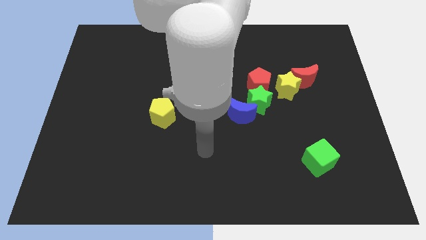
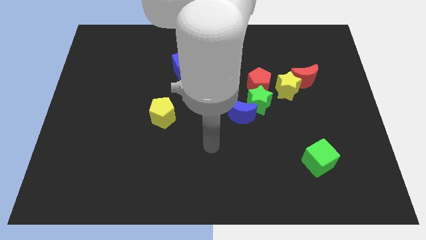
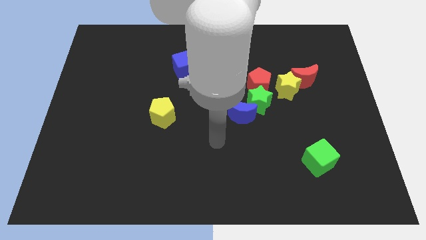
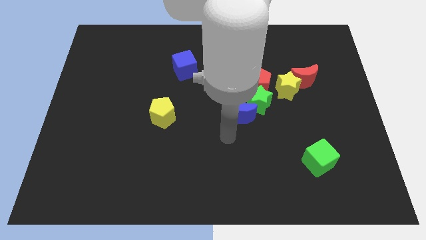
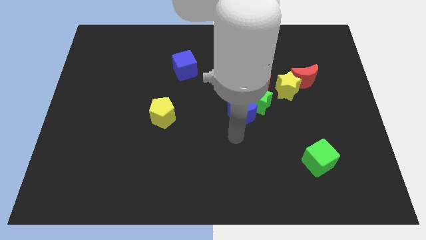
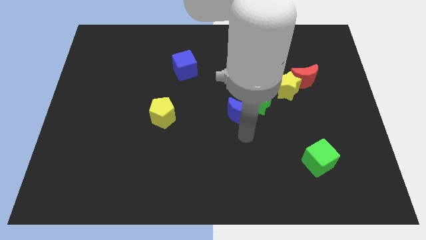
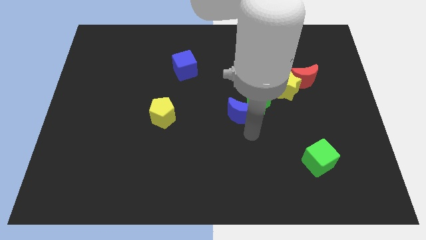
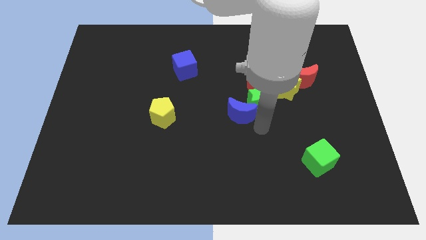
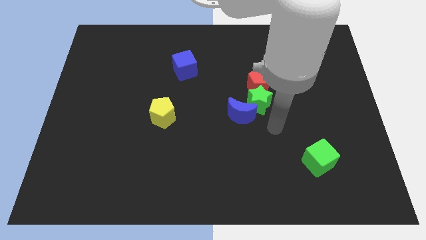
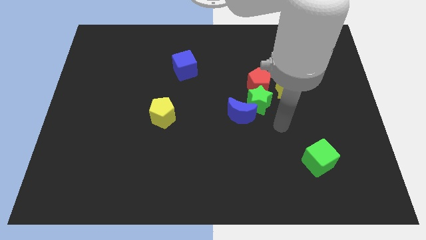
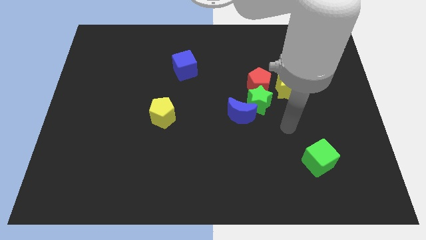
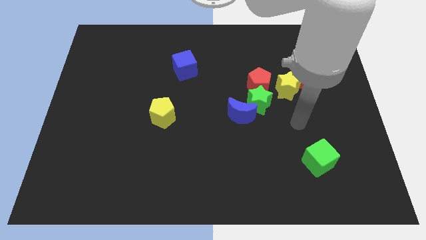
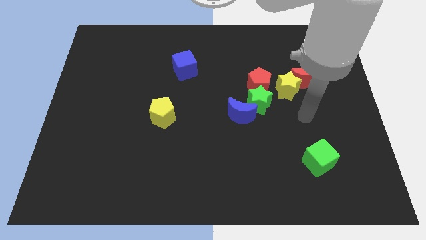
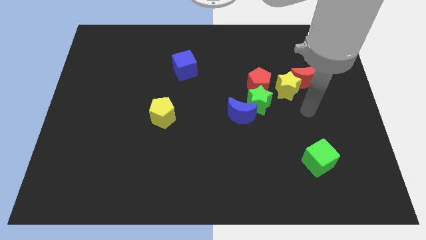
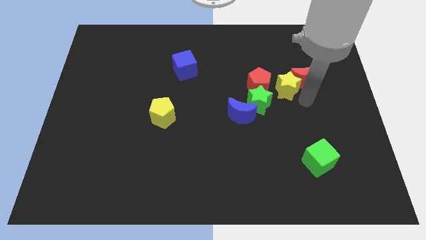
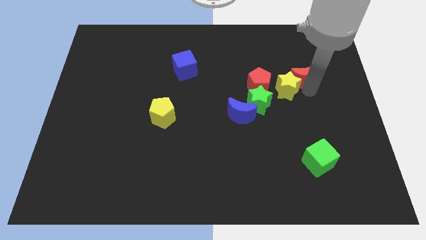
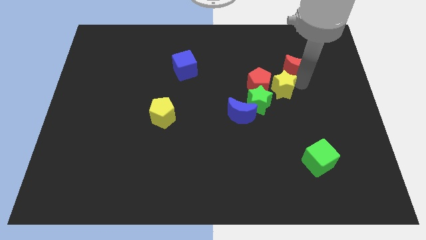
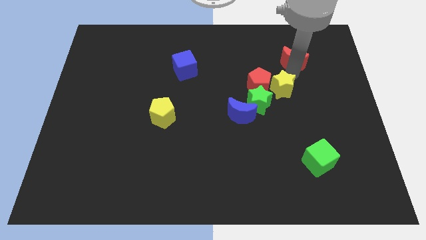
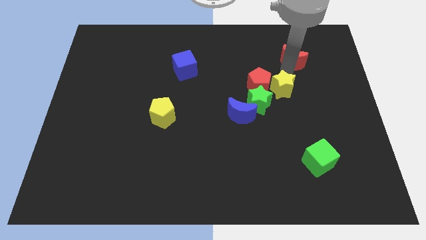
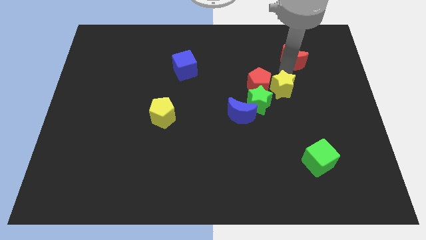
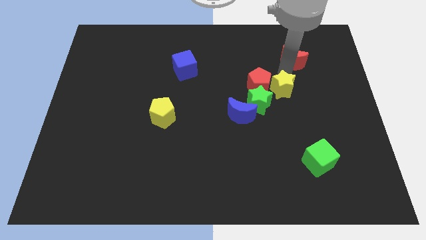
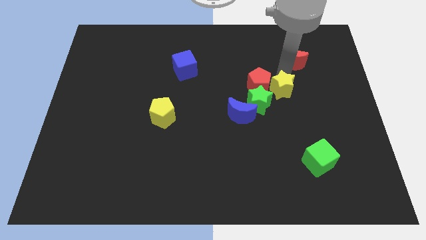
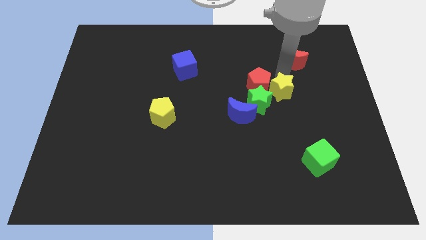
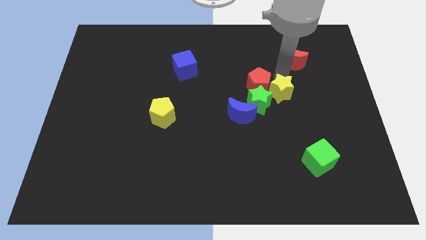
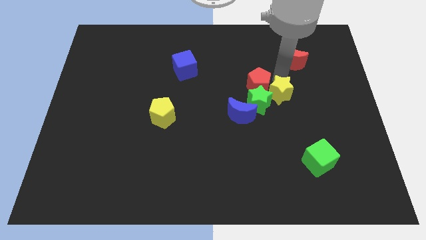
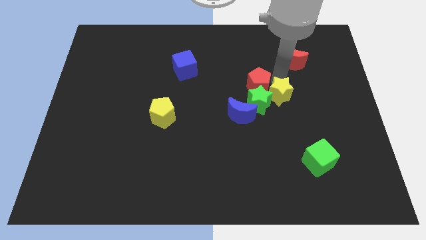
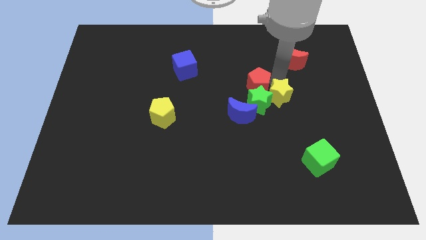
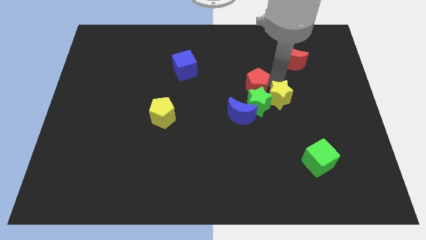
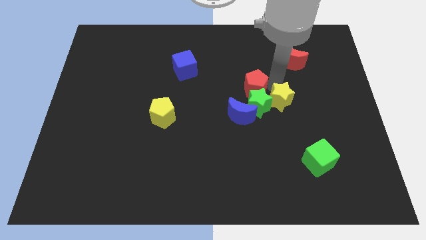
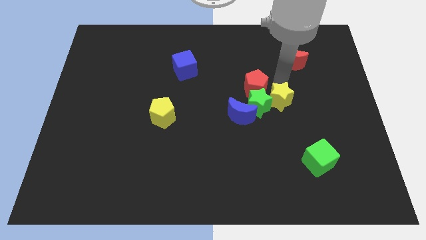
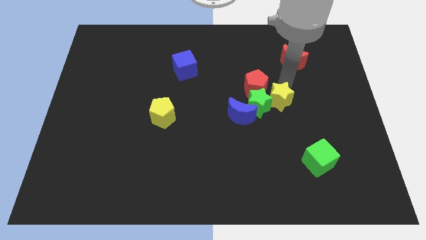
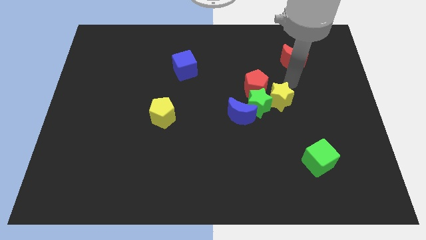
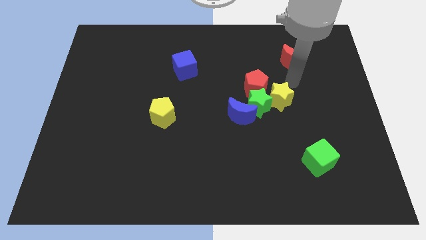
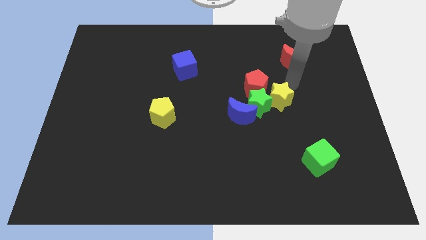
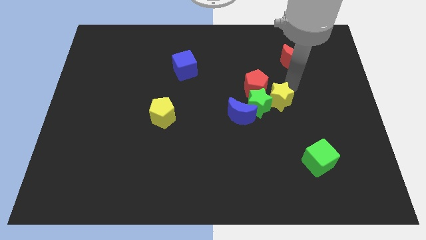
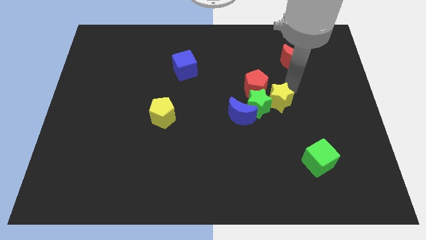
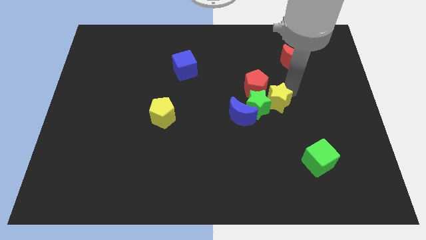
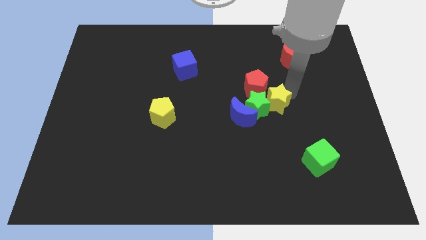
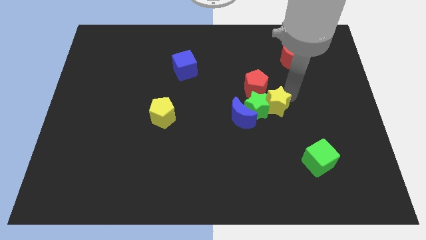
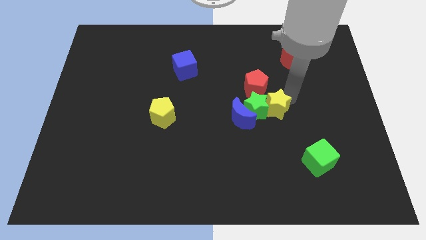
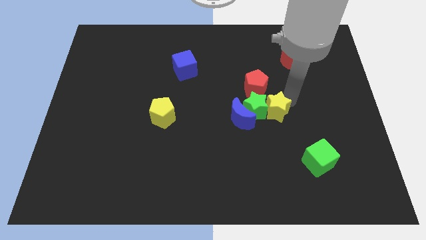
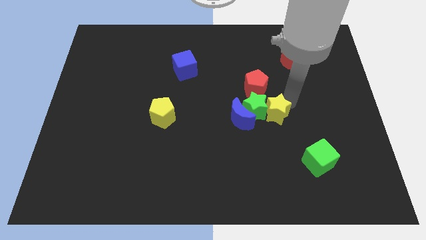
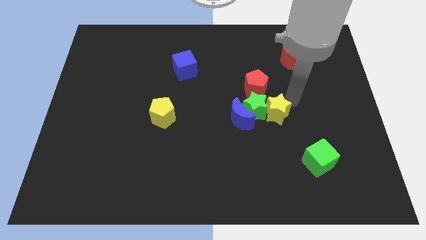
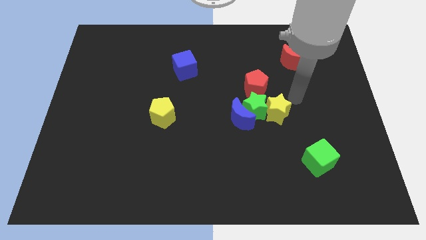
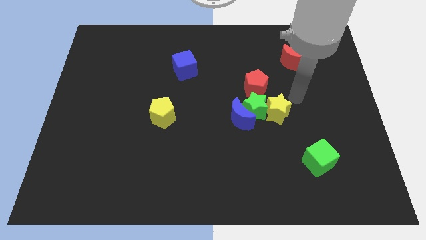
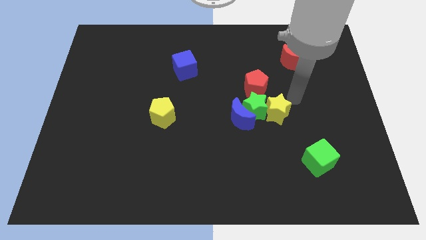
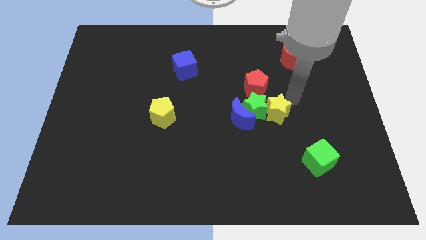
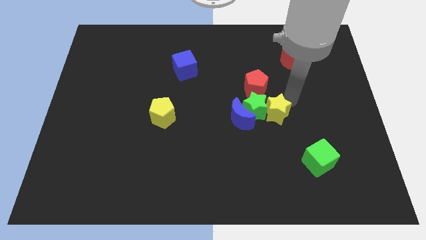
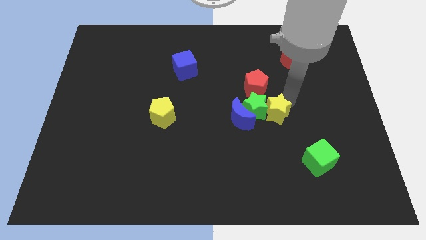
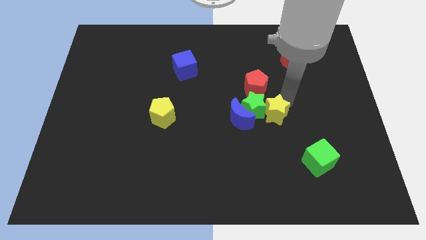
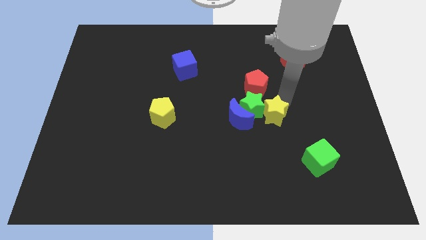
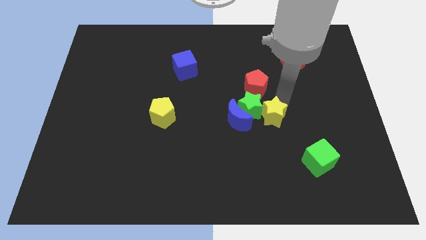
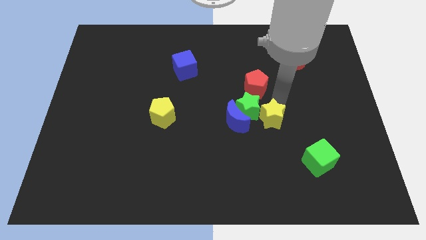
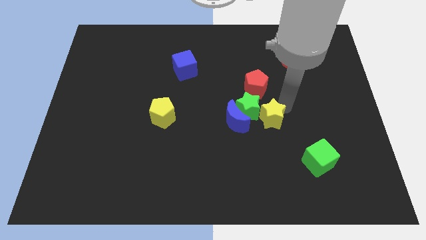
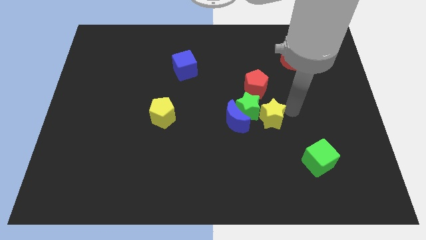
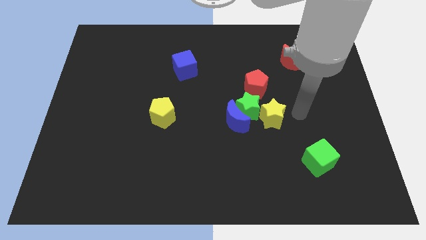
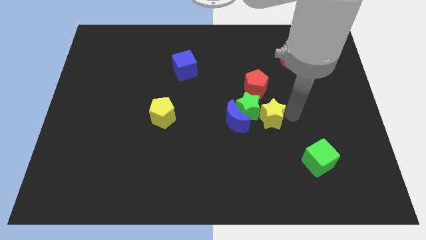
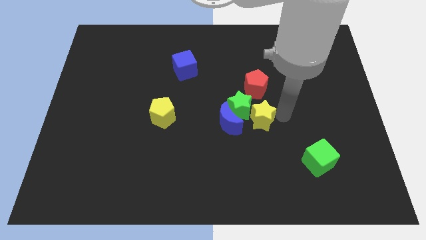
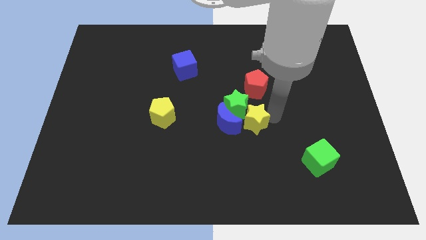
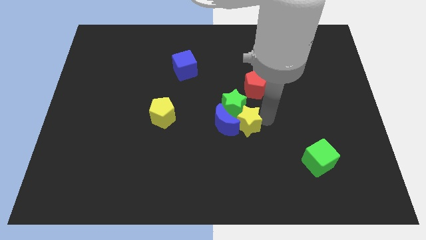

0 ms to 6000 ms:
push the yellow star to the blue moon

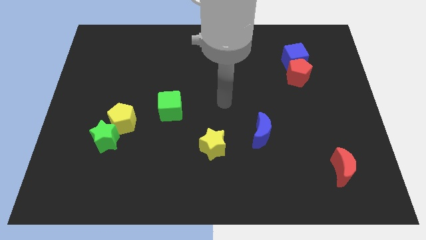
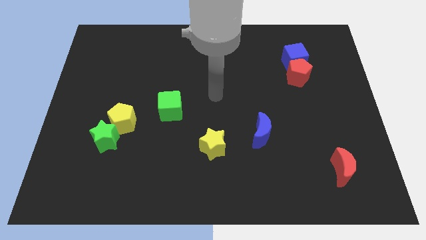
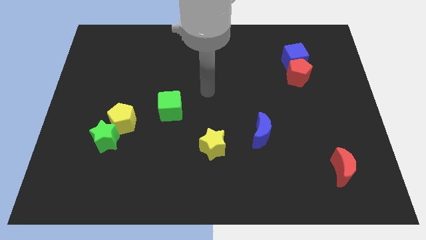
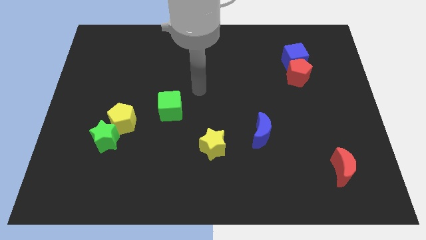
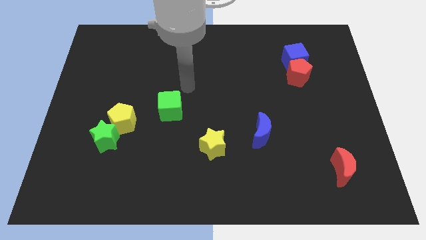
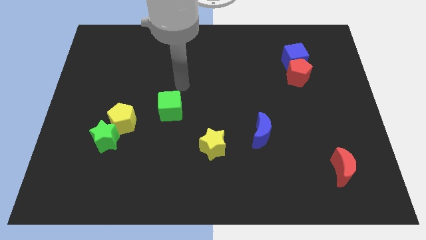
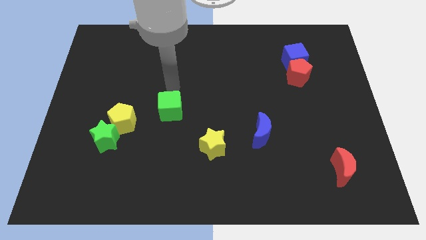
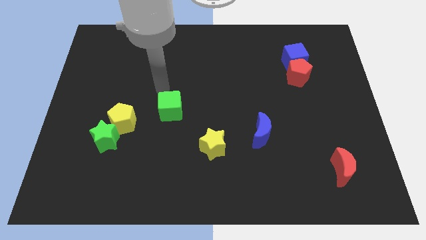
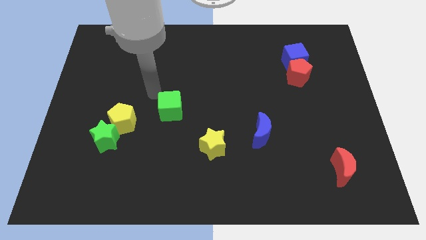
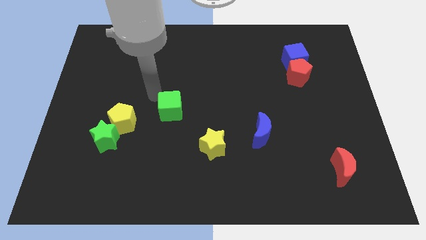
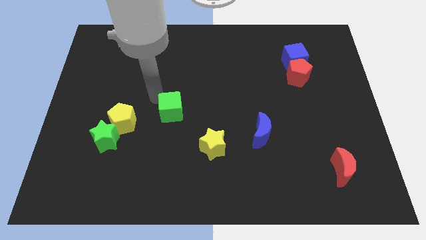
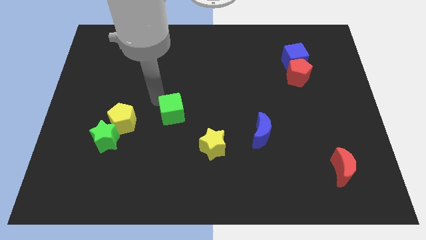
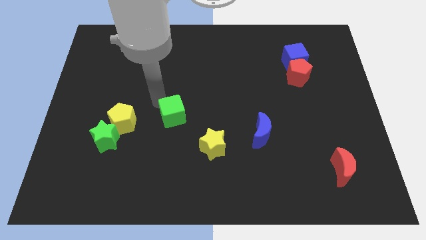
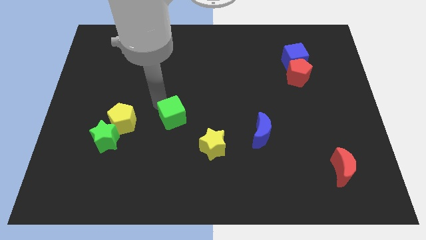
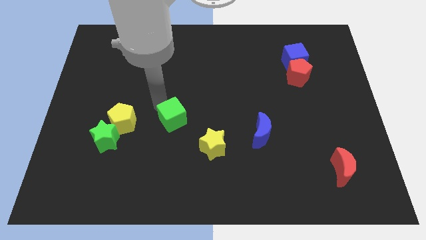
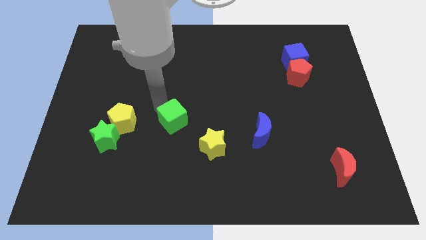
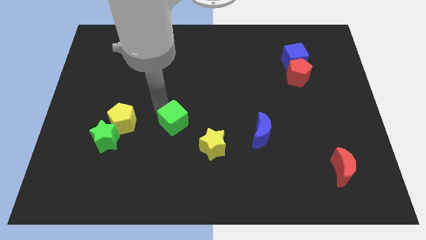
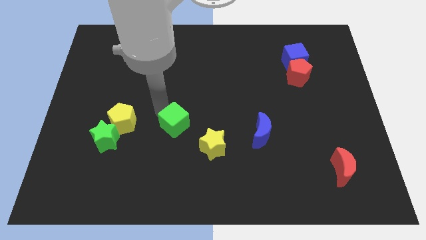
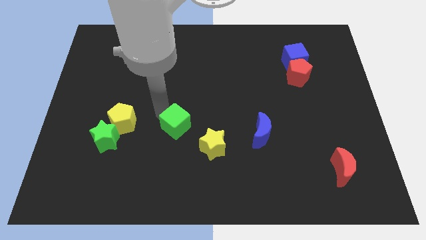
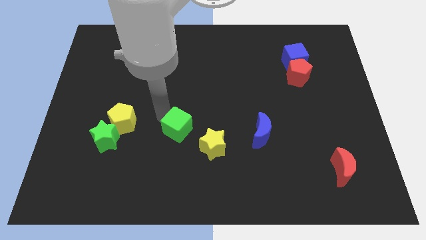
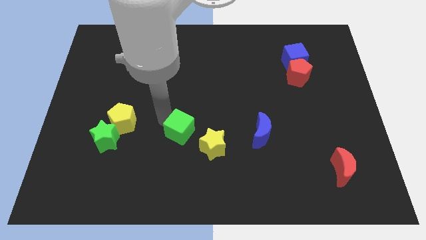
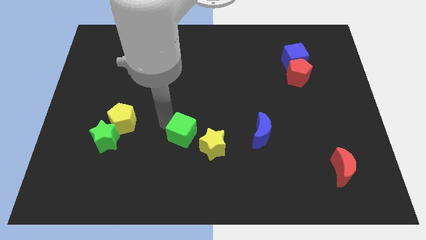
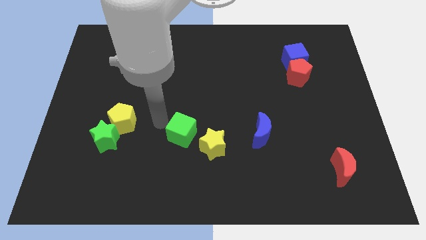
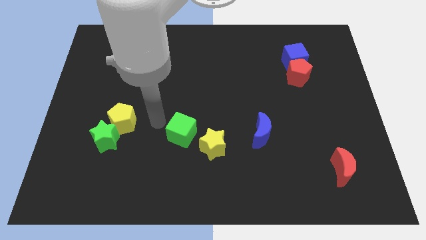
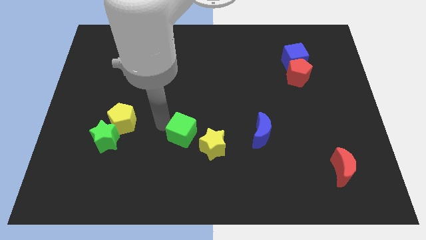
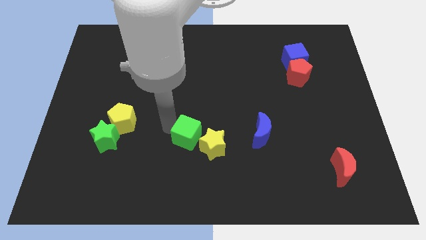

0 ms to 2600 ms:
push the green cube close to the yellow star
